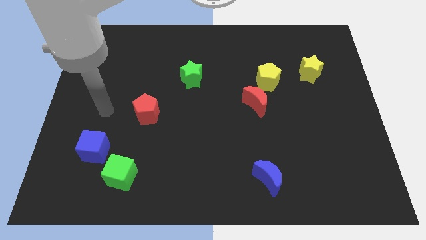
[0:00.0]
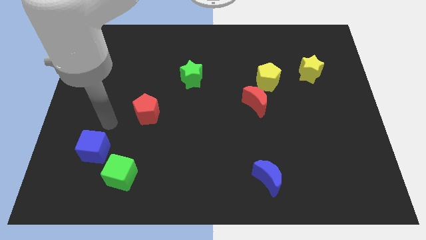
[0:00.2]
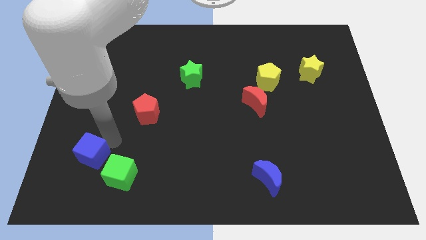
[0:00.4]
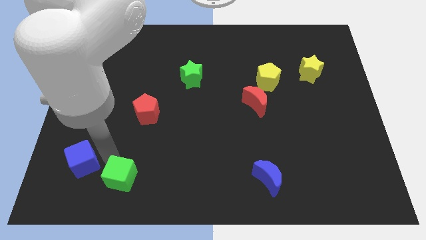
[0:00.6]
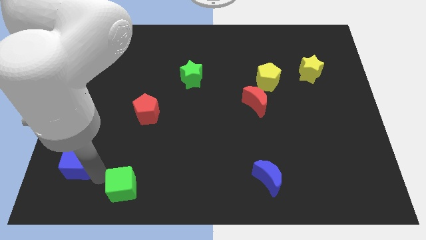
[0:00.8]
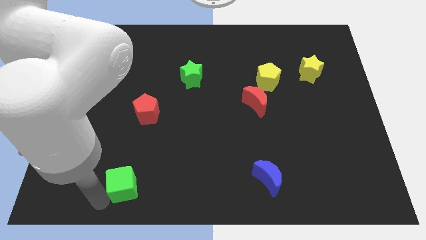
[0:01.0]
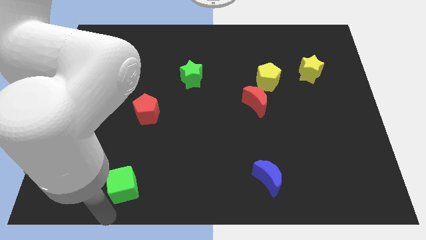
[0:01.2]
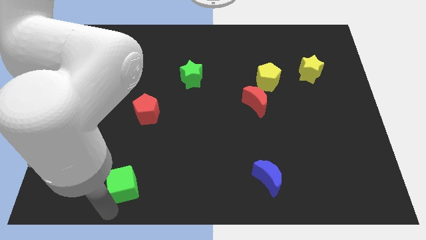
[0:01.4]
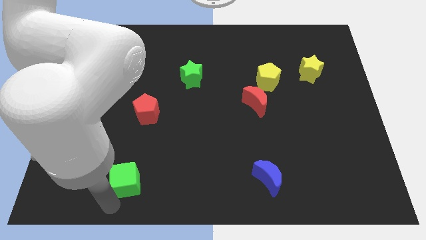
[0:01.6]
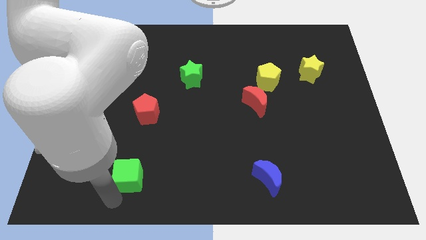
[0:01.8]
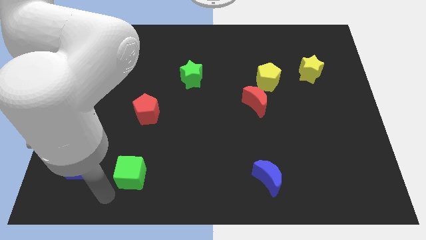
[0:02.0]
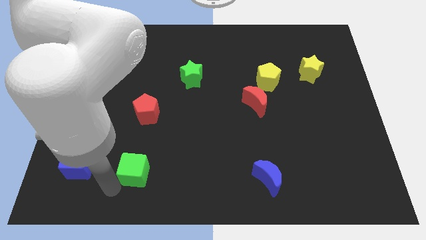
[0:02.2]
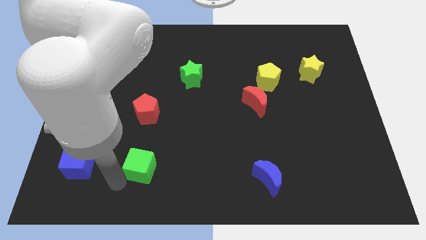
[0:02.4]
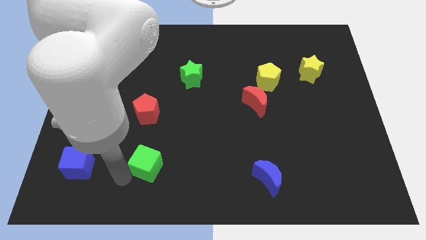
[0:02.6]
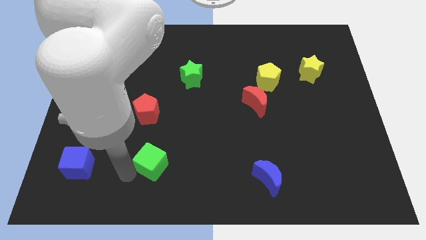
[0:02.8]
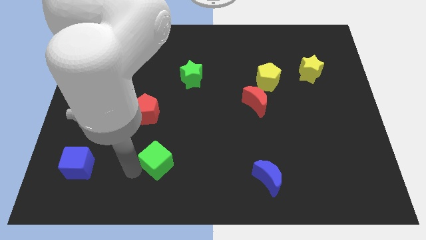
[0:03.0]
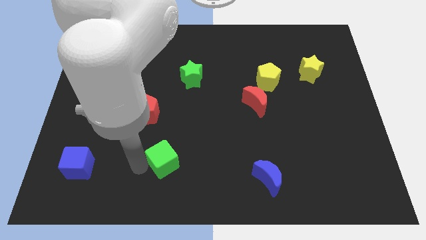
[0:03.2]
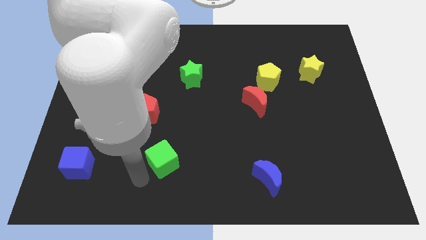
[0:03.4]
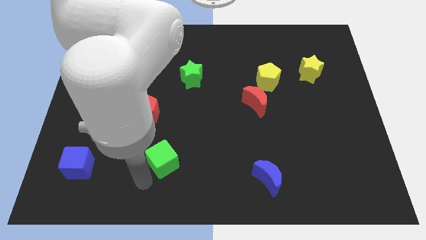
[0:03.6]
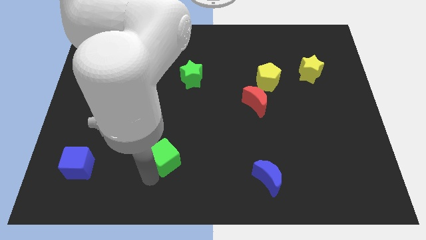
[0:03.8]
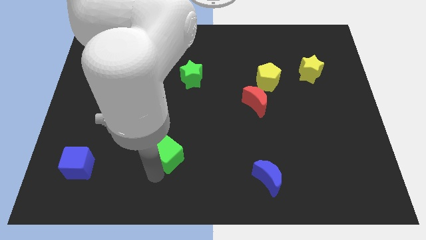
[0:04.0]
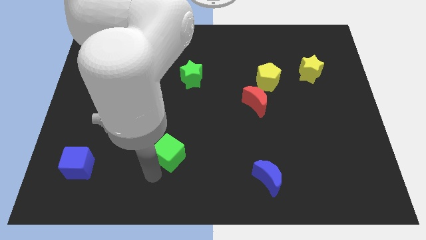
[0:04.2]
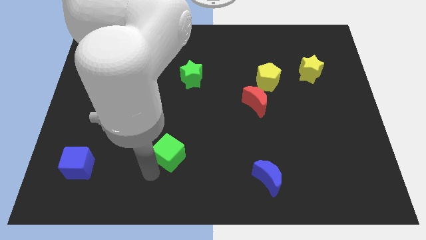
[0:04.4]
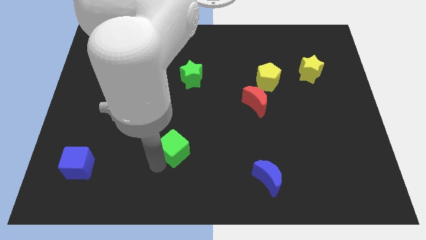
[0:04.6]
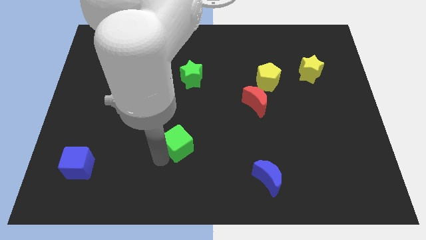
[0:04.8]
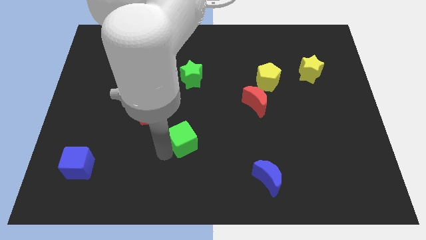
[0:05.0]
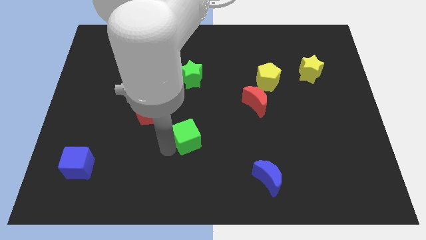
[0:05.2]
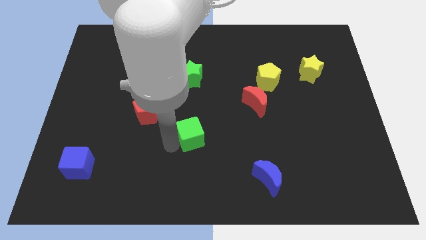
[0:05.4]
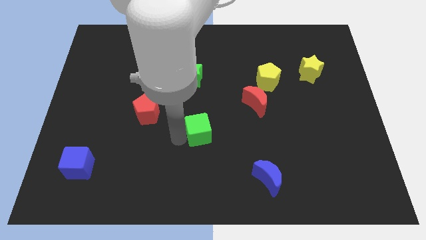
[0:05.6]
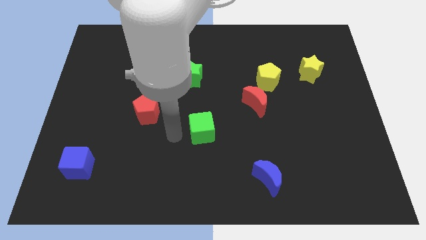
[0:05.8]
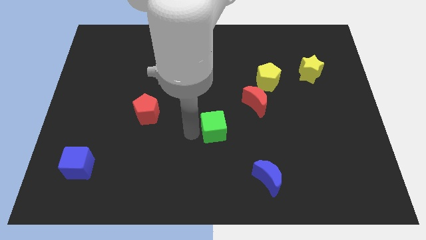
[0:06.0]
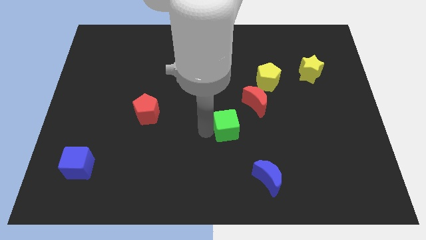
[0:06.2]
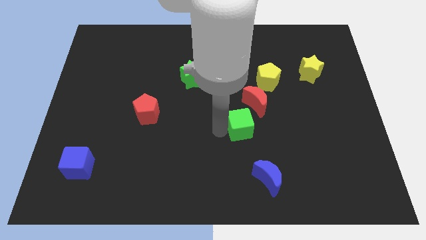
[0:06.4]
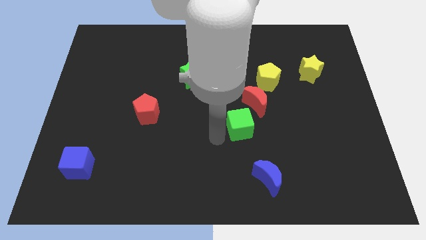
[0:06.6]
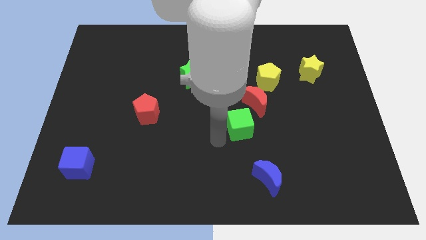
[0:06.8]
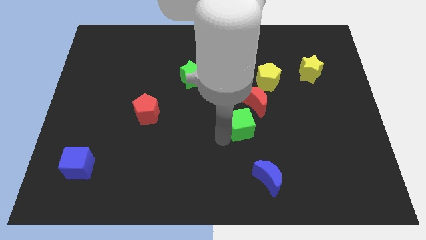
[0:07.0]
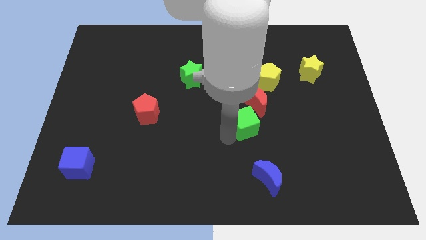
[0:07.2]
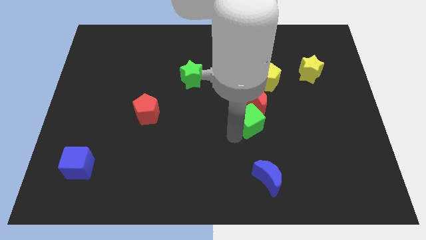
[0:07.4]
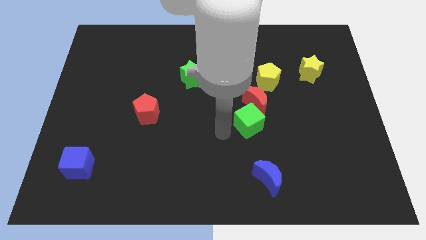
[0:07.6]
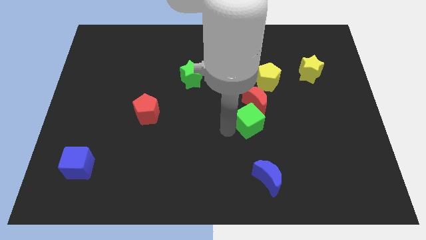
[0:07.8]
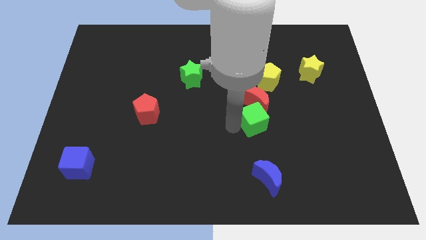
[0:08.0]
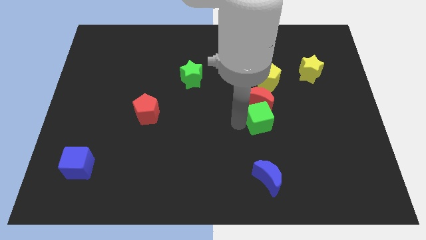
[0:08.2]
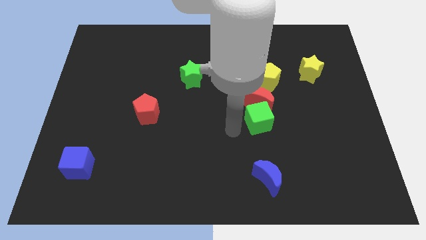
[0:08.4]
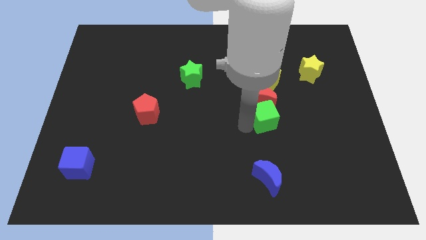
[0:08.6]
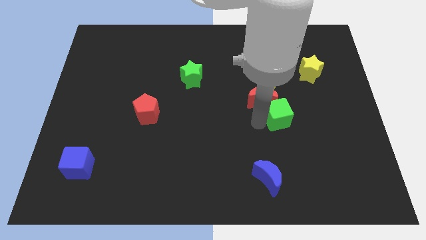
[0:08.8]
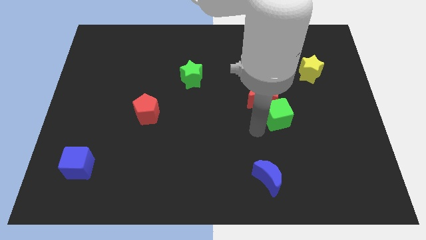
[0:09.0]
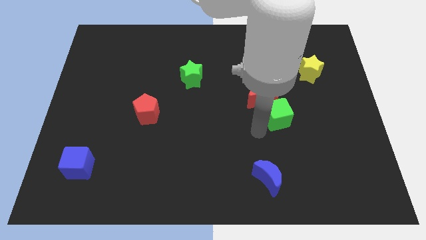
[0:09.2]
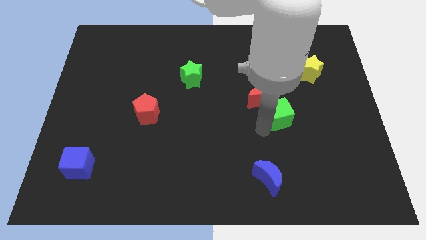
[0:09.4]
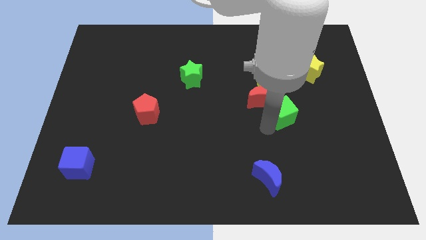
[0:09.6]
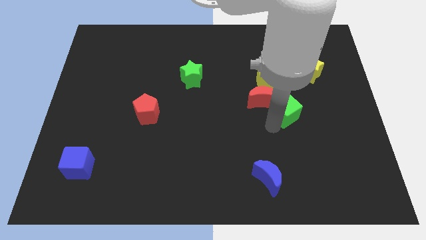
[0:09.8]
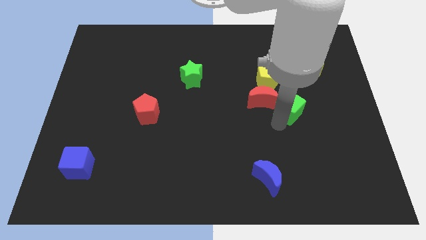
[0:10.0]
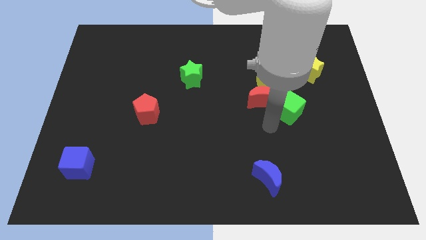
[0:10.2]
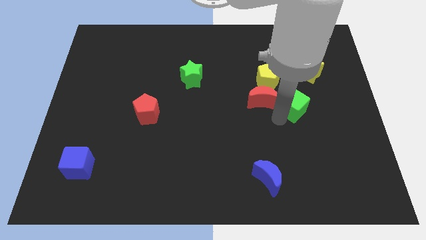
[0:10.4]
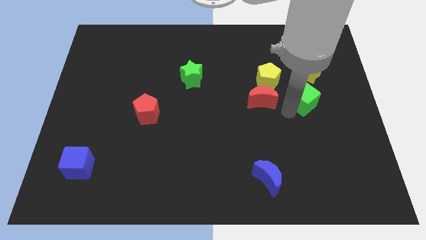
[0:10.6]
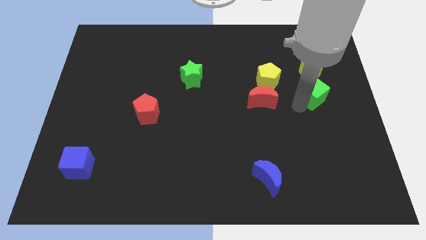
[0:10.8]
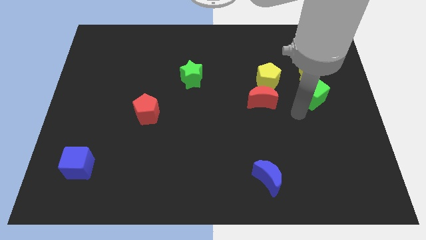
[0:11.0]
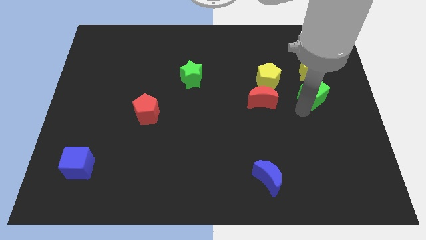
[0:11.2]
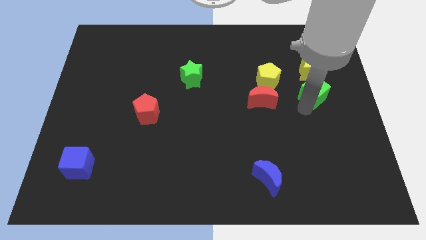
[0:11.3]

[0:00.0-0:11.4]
move the green cube just right of the yellow pentagon

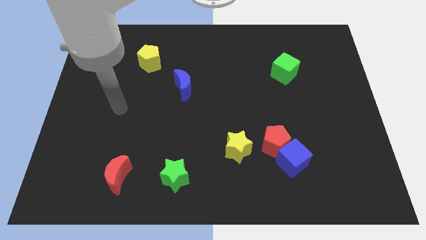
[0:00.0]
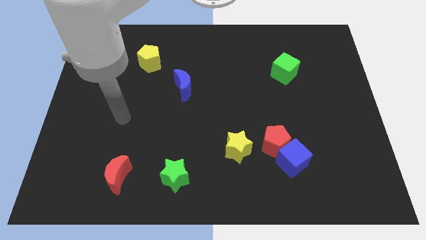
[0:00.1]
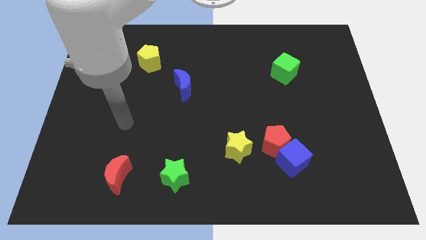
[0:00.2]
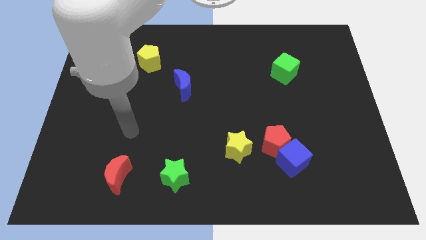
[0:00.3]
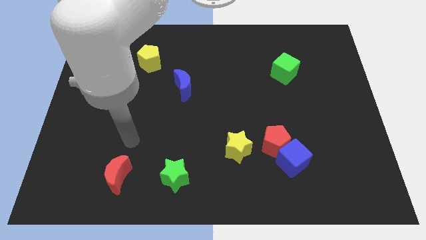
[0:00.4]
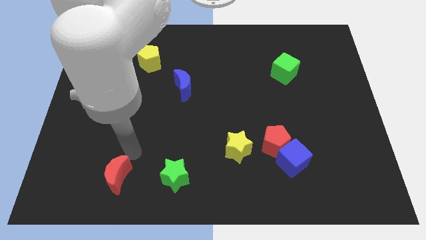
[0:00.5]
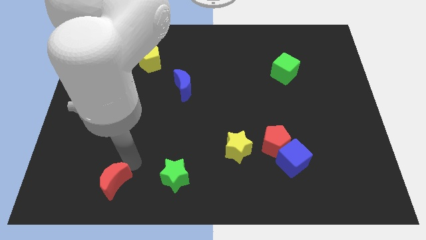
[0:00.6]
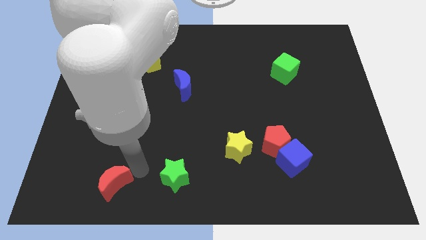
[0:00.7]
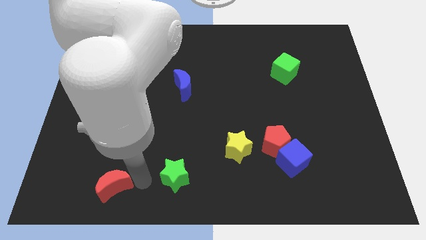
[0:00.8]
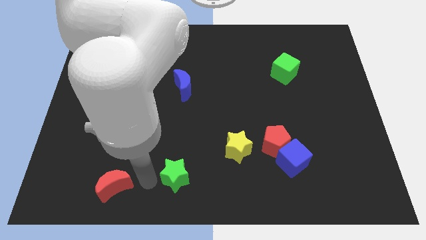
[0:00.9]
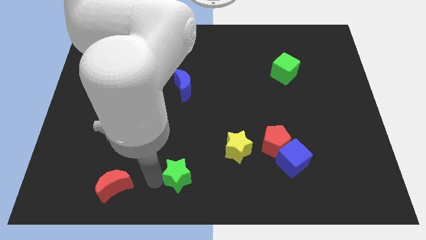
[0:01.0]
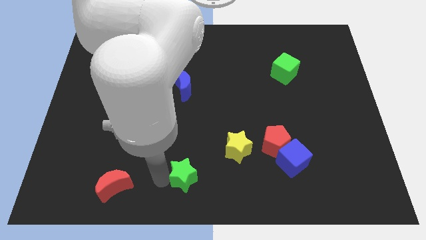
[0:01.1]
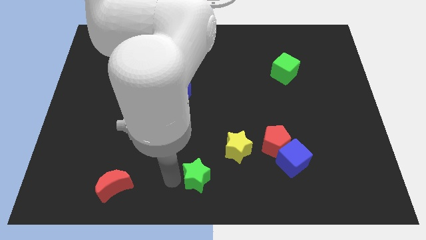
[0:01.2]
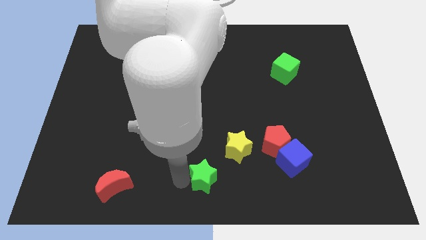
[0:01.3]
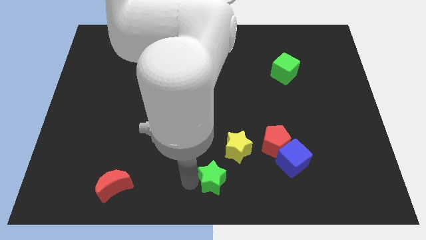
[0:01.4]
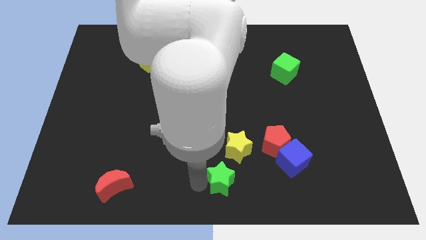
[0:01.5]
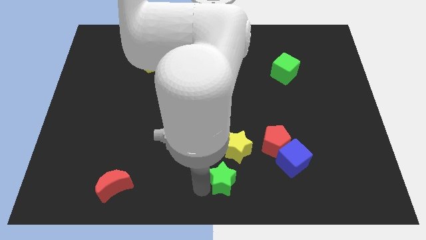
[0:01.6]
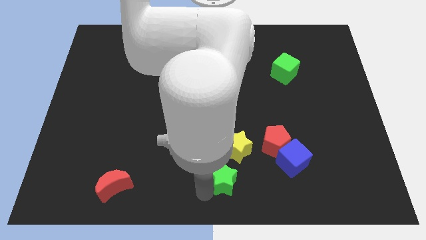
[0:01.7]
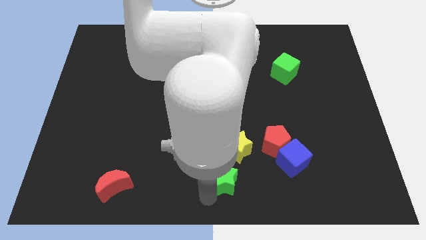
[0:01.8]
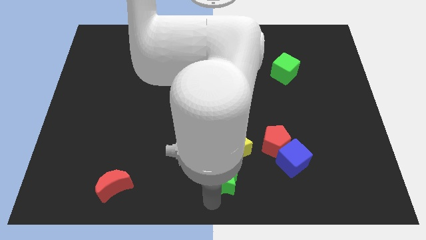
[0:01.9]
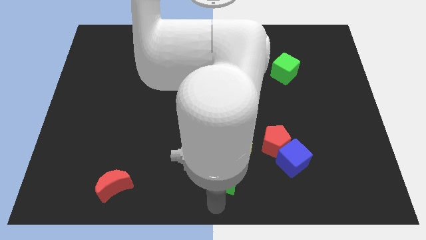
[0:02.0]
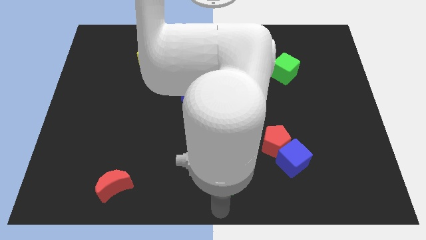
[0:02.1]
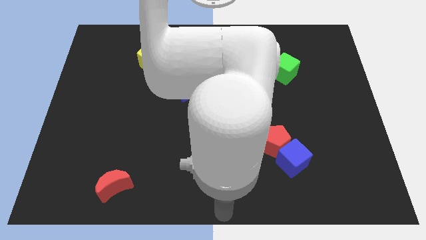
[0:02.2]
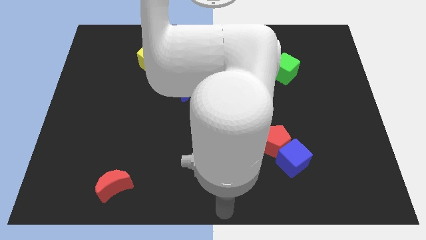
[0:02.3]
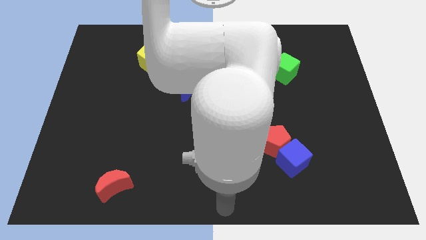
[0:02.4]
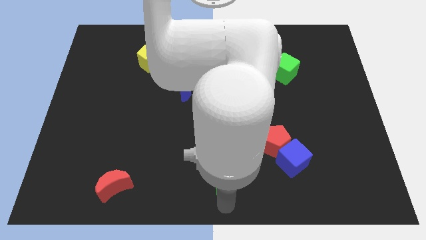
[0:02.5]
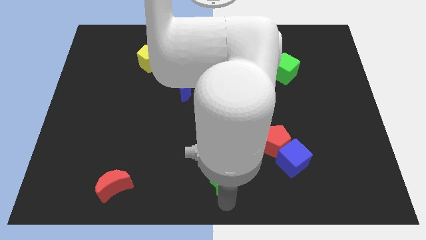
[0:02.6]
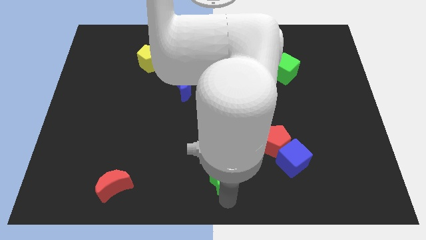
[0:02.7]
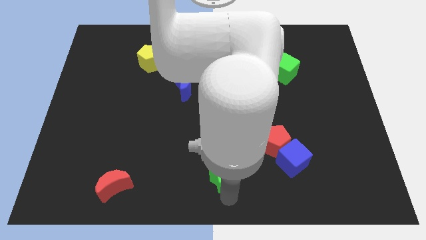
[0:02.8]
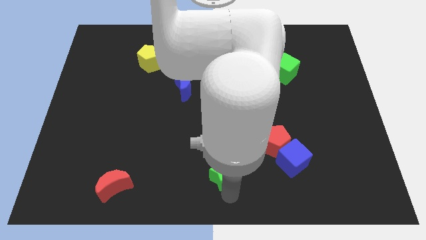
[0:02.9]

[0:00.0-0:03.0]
move the green star left of the blue cube
